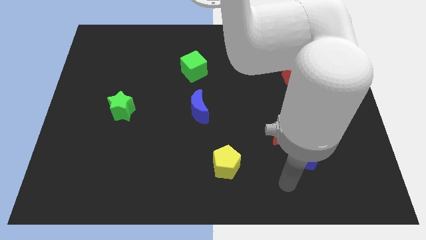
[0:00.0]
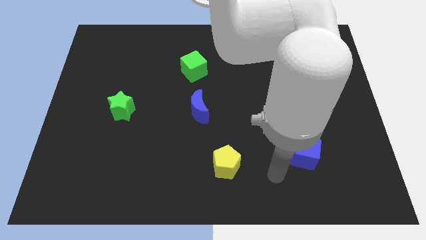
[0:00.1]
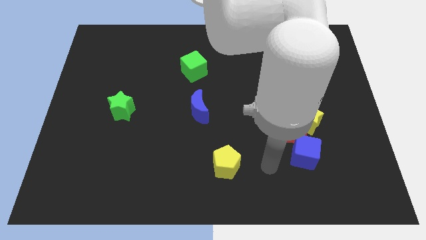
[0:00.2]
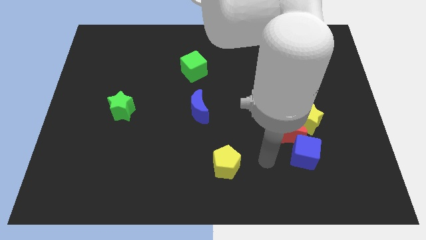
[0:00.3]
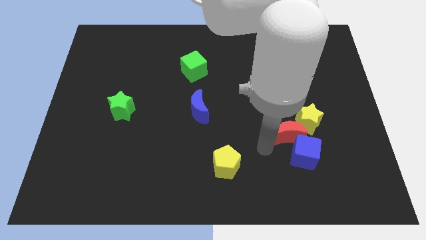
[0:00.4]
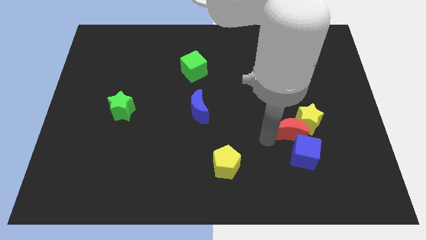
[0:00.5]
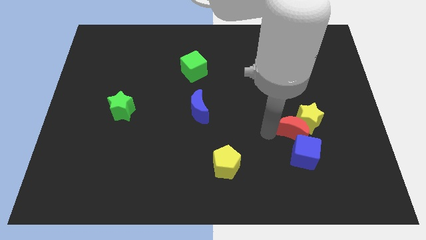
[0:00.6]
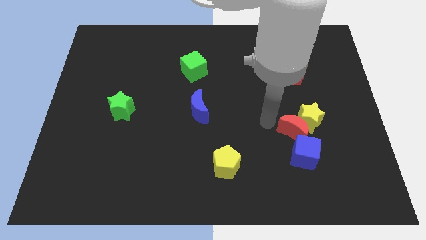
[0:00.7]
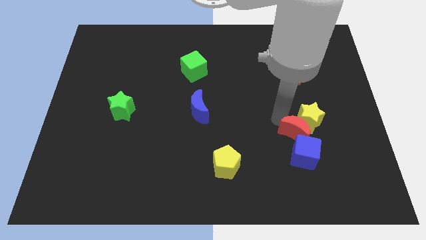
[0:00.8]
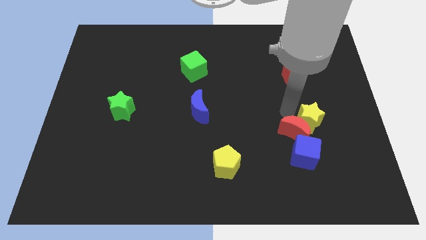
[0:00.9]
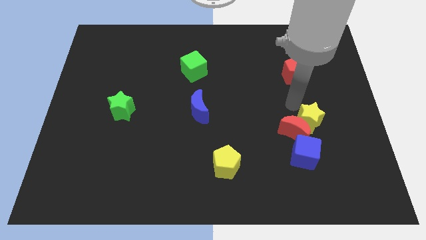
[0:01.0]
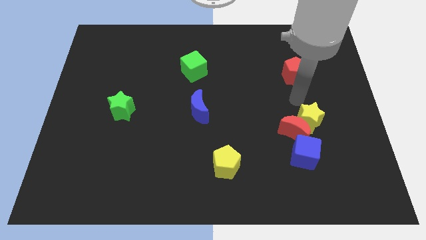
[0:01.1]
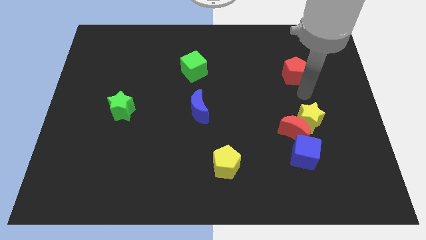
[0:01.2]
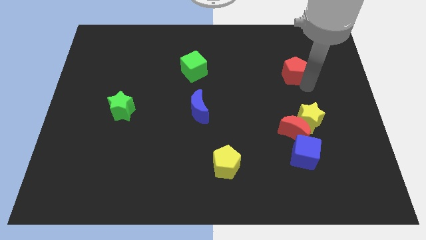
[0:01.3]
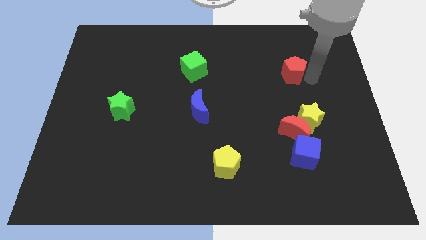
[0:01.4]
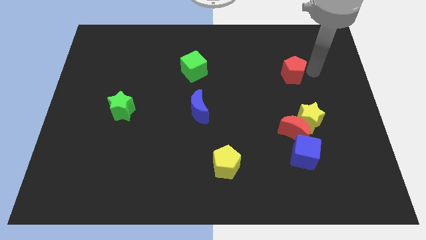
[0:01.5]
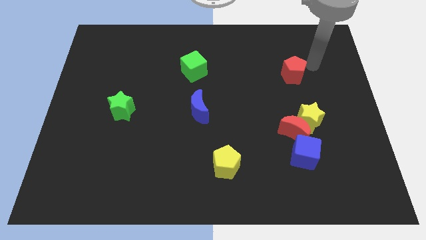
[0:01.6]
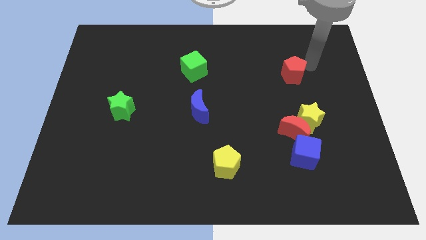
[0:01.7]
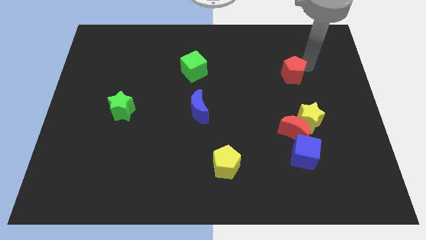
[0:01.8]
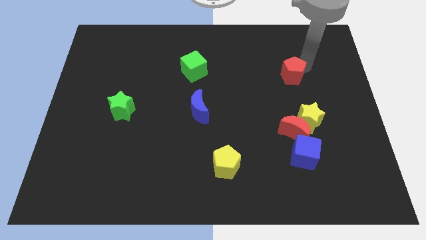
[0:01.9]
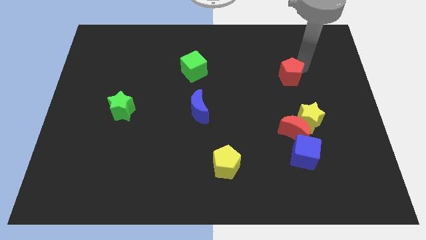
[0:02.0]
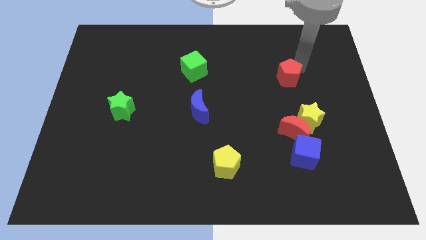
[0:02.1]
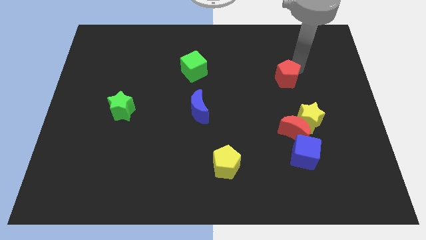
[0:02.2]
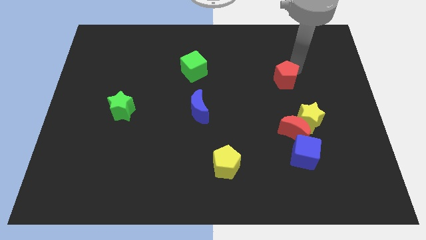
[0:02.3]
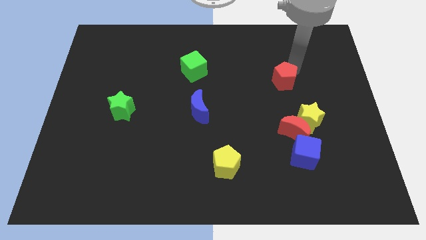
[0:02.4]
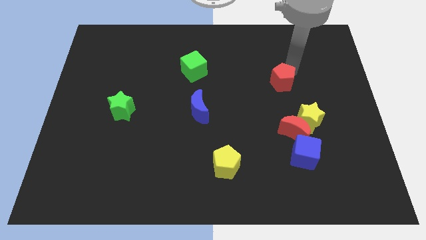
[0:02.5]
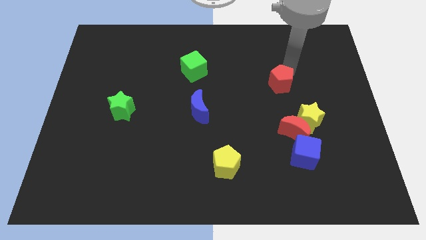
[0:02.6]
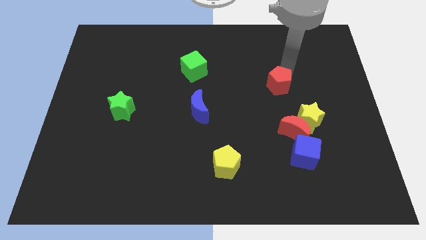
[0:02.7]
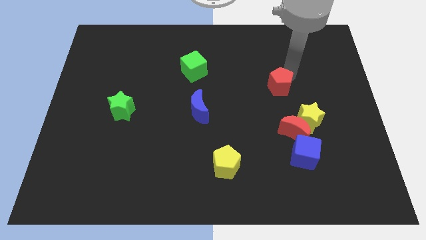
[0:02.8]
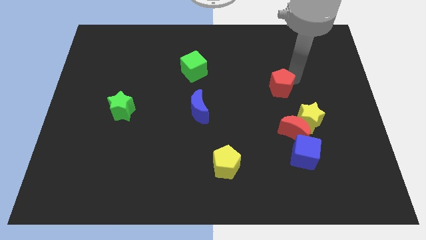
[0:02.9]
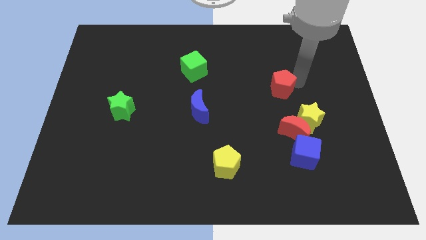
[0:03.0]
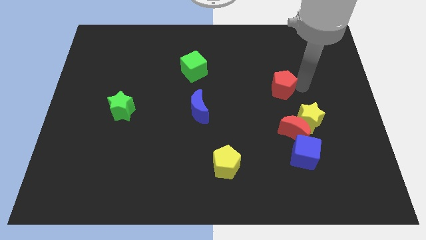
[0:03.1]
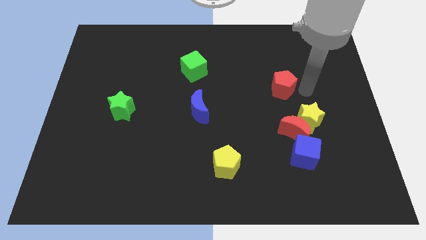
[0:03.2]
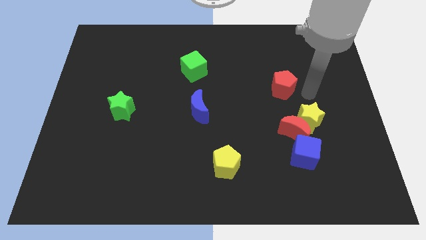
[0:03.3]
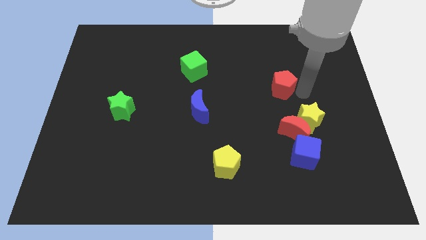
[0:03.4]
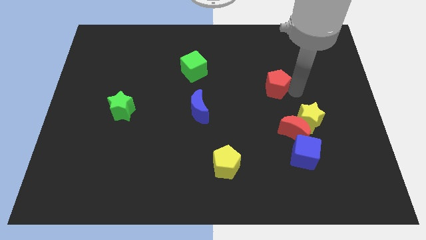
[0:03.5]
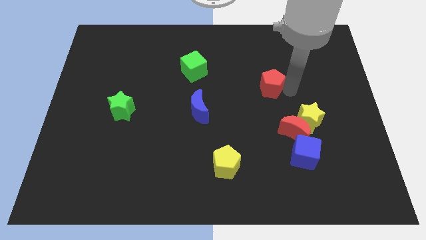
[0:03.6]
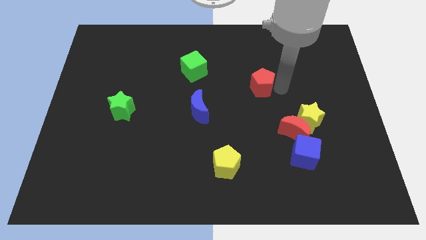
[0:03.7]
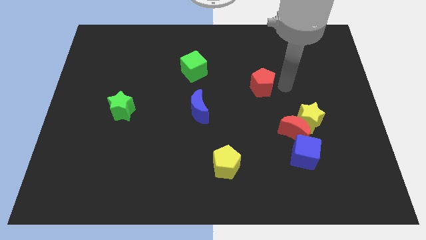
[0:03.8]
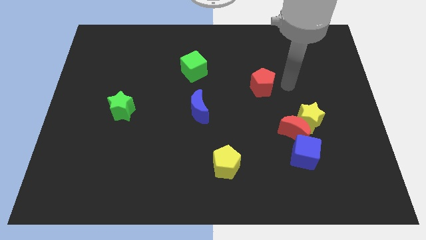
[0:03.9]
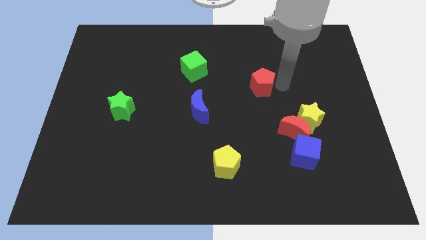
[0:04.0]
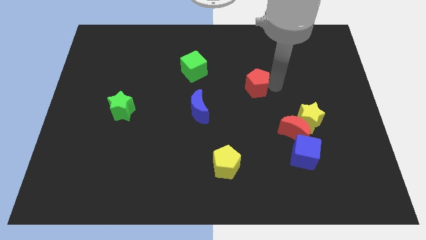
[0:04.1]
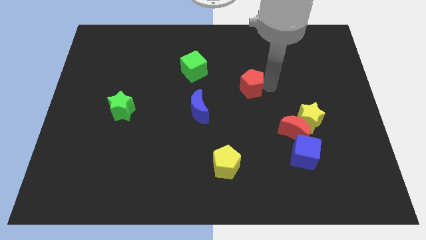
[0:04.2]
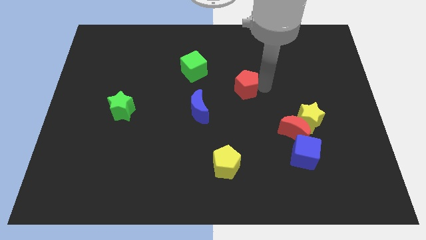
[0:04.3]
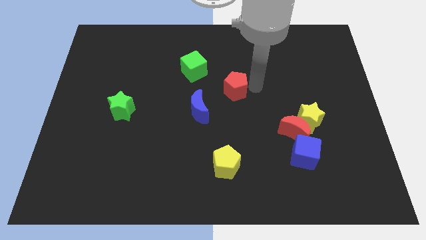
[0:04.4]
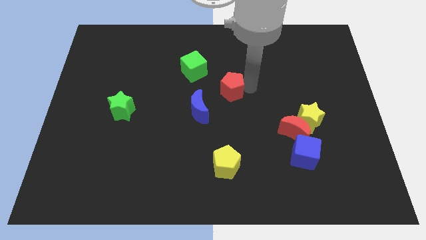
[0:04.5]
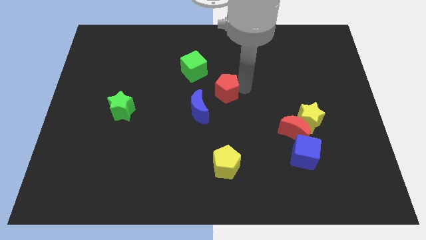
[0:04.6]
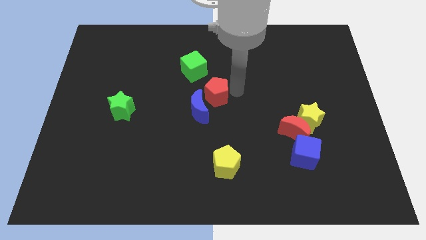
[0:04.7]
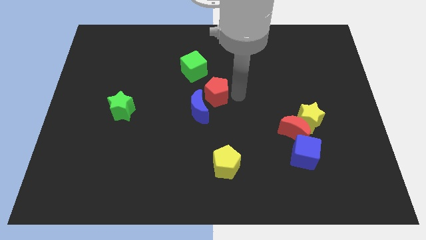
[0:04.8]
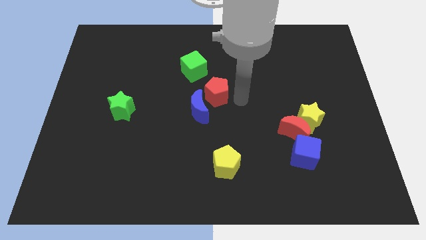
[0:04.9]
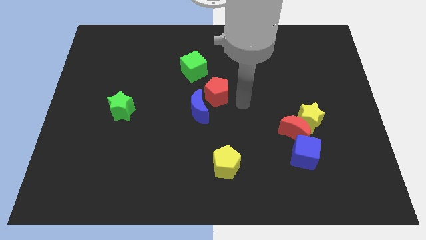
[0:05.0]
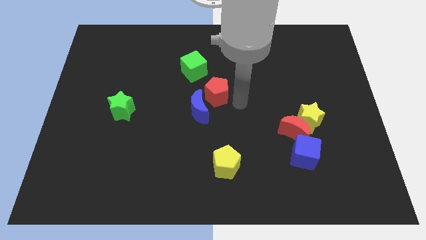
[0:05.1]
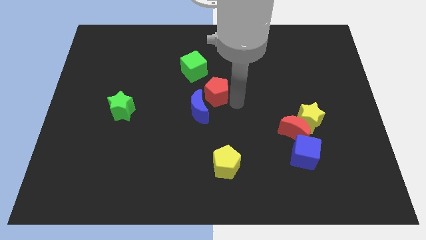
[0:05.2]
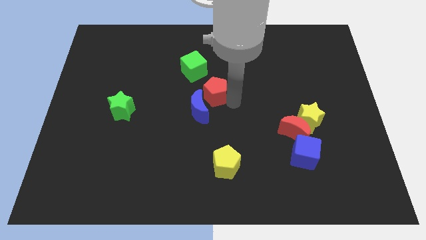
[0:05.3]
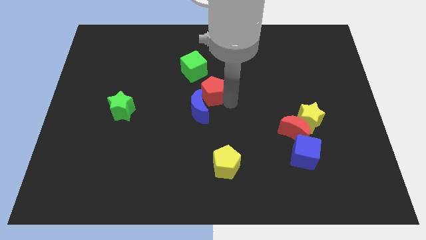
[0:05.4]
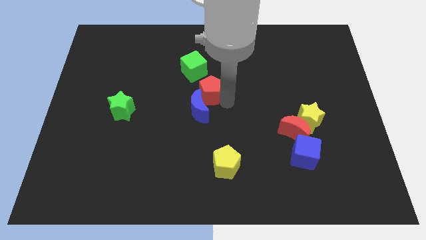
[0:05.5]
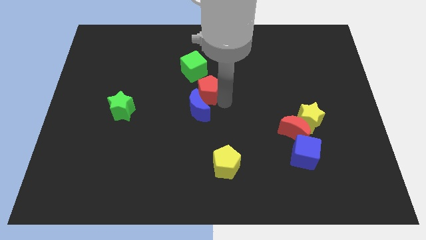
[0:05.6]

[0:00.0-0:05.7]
slide the red pentagon to the left

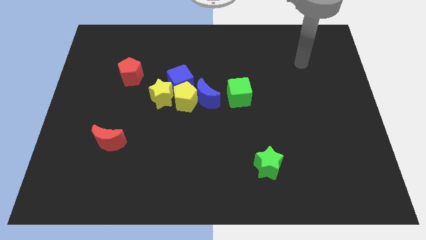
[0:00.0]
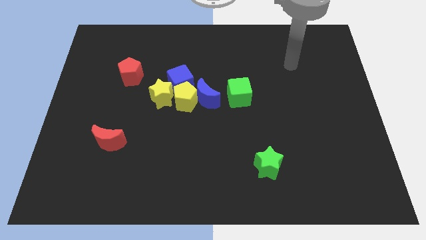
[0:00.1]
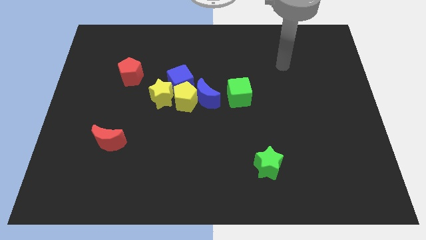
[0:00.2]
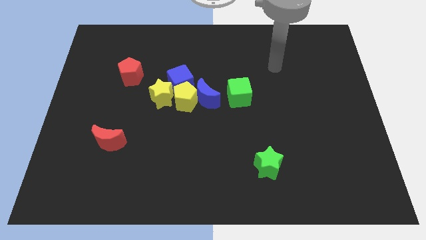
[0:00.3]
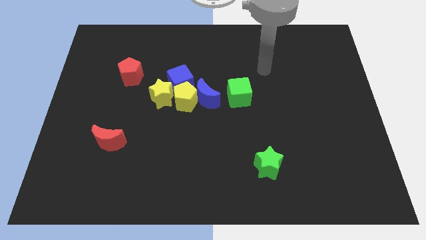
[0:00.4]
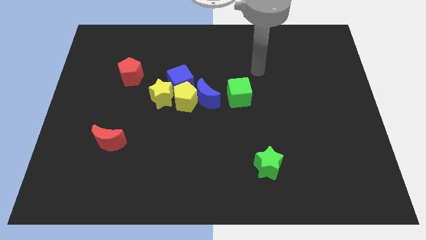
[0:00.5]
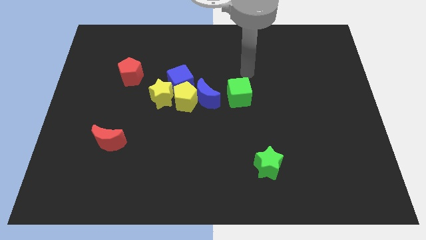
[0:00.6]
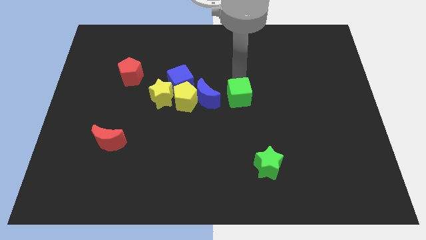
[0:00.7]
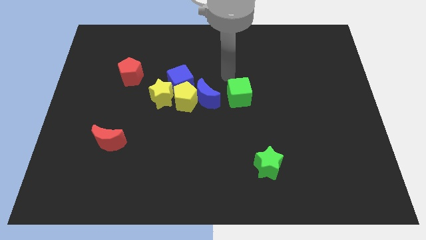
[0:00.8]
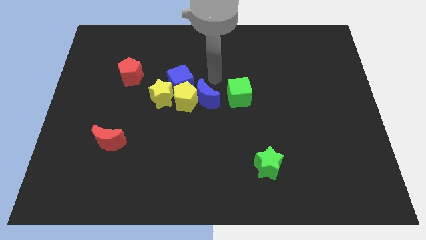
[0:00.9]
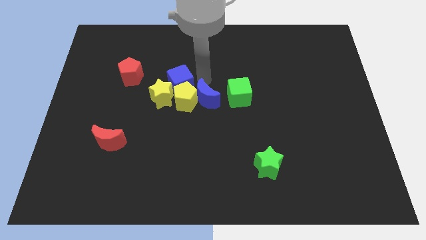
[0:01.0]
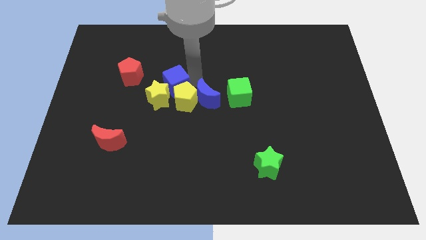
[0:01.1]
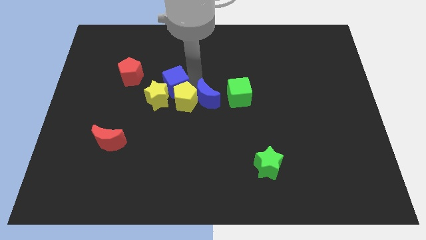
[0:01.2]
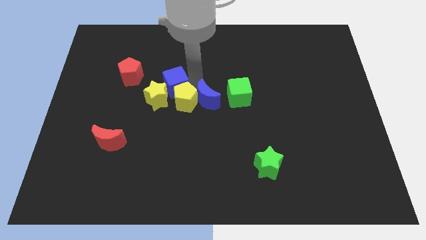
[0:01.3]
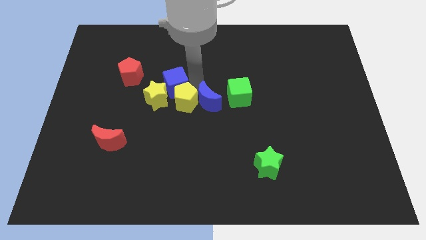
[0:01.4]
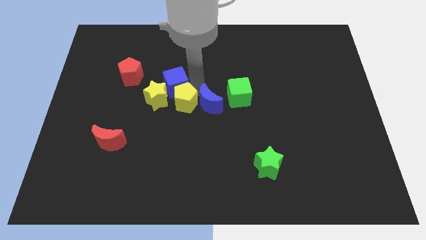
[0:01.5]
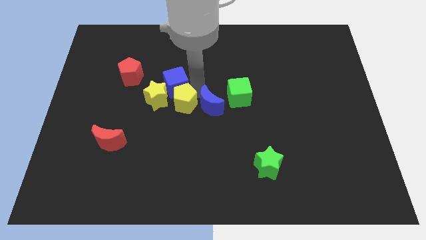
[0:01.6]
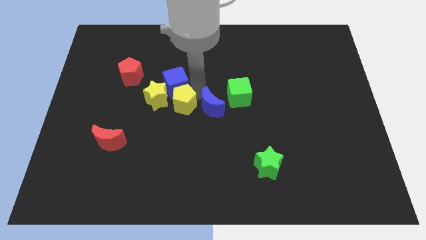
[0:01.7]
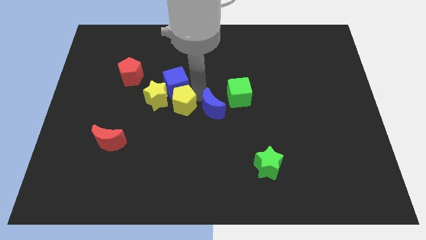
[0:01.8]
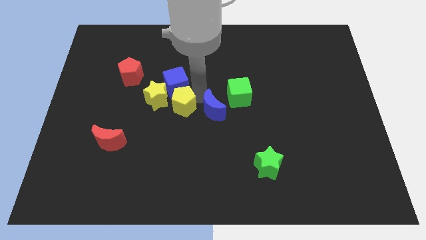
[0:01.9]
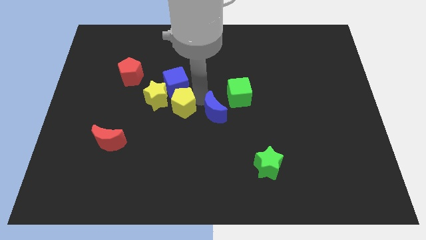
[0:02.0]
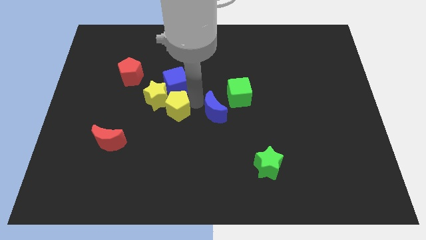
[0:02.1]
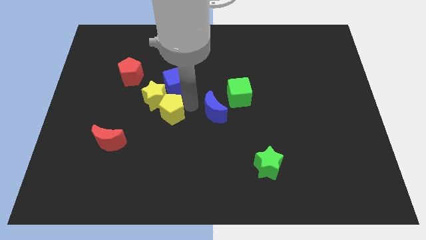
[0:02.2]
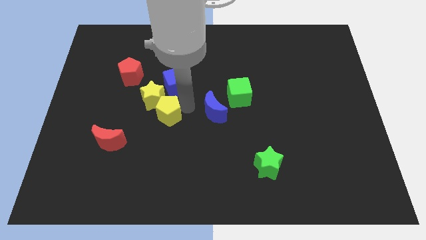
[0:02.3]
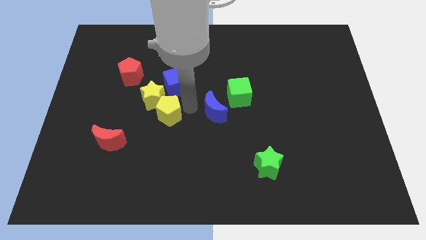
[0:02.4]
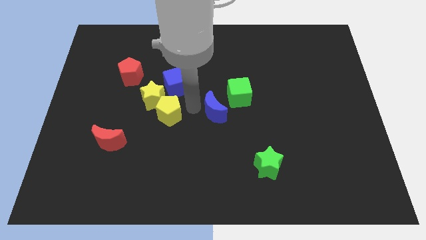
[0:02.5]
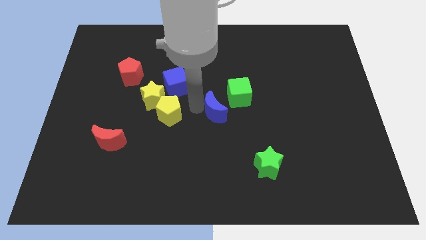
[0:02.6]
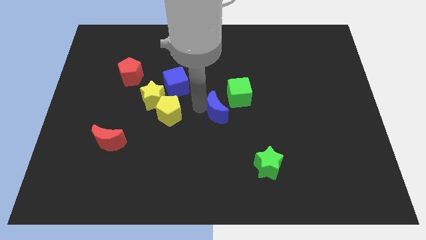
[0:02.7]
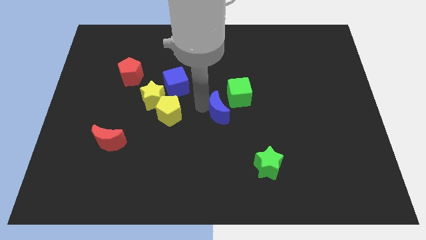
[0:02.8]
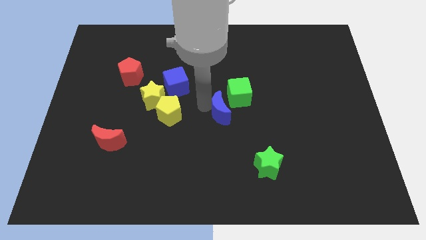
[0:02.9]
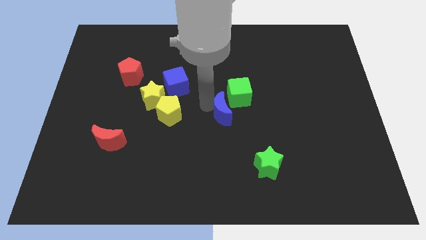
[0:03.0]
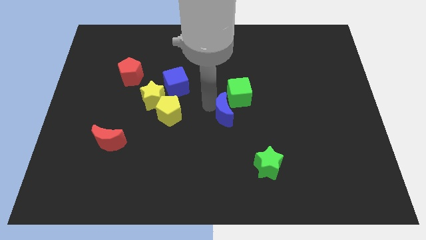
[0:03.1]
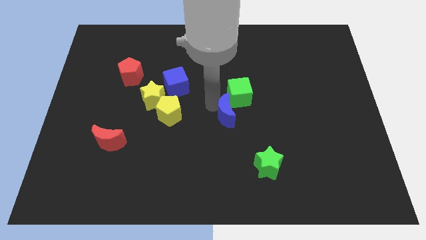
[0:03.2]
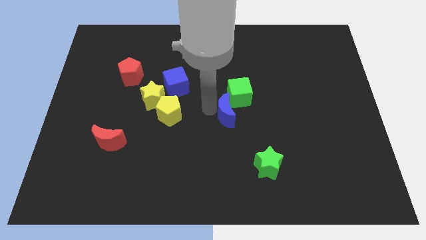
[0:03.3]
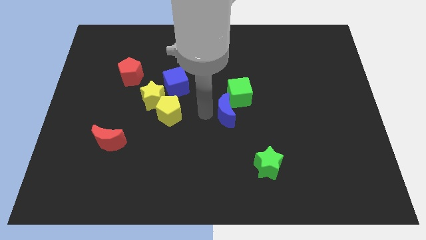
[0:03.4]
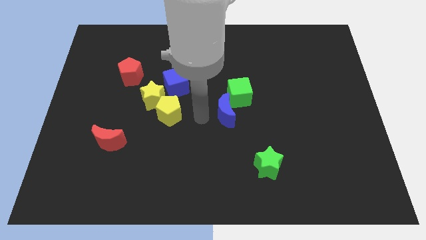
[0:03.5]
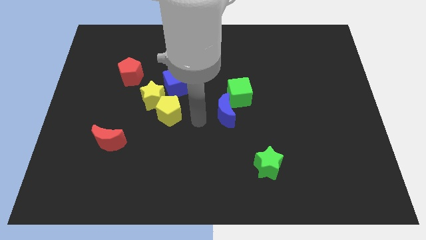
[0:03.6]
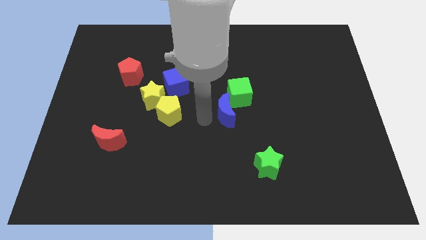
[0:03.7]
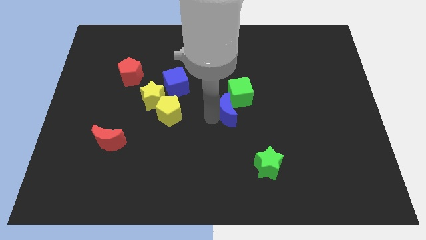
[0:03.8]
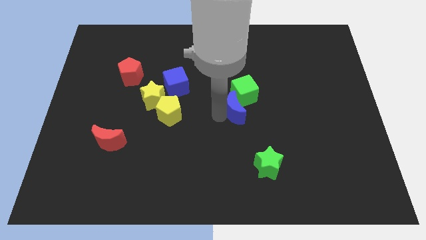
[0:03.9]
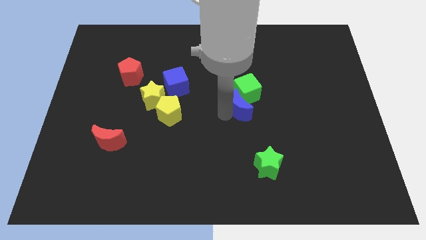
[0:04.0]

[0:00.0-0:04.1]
slide the blue moon right somewhat
